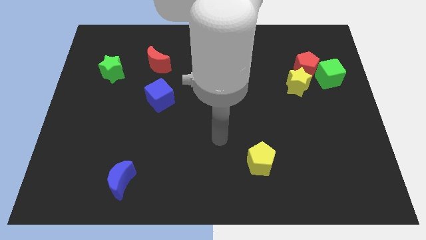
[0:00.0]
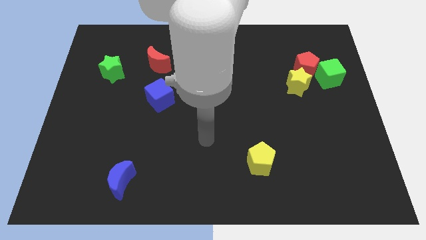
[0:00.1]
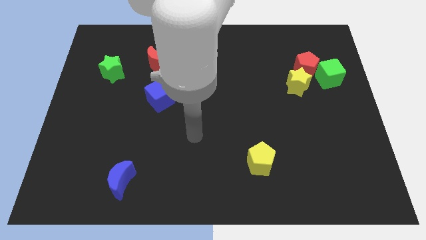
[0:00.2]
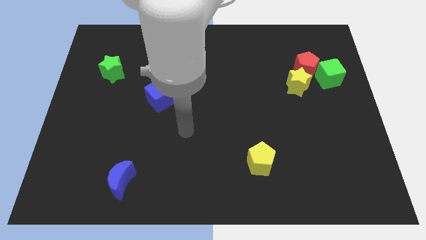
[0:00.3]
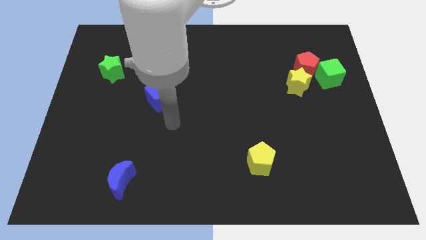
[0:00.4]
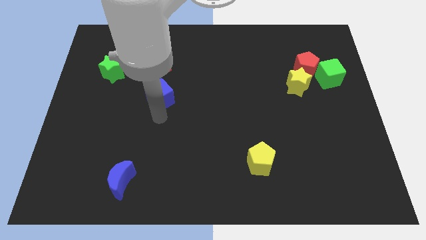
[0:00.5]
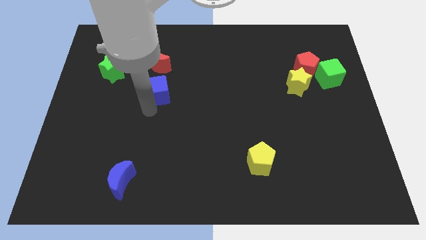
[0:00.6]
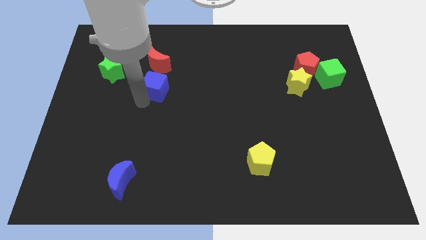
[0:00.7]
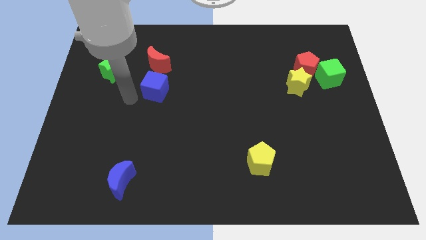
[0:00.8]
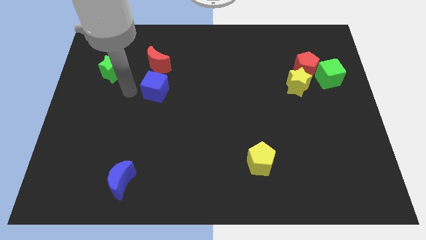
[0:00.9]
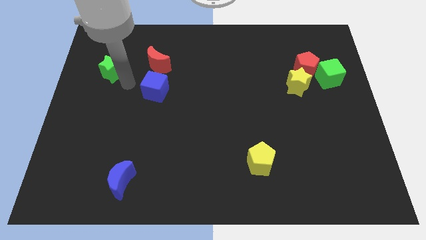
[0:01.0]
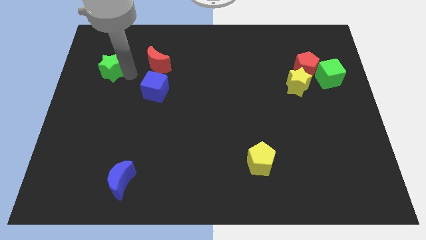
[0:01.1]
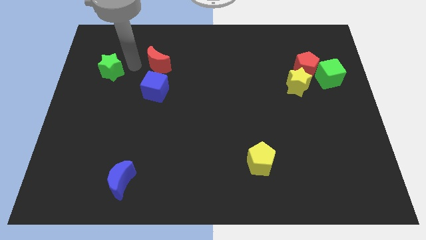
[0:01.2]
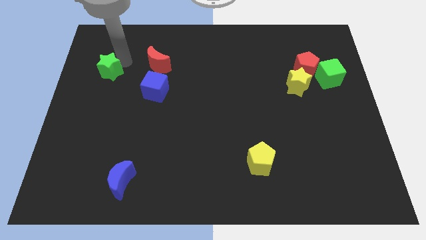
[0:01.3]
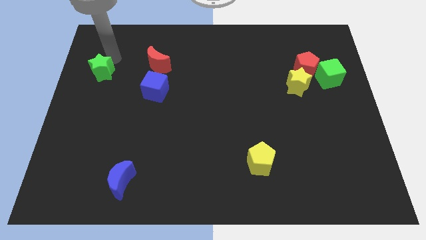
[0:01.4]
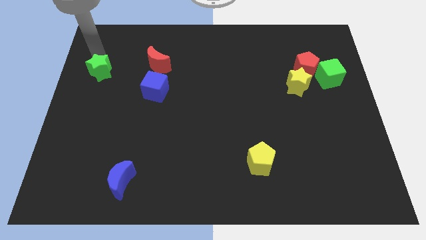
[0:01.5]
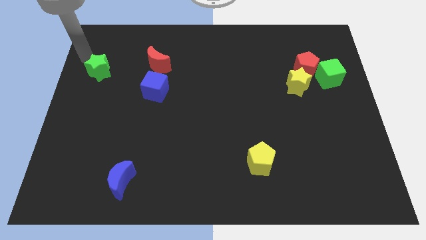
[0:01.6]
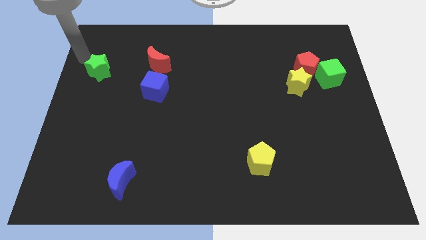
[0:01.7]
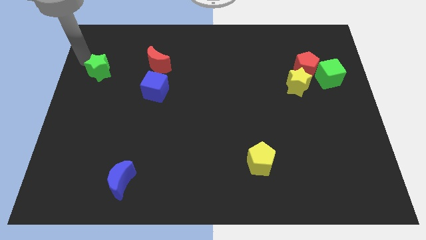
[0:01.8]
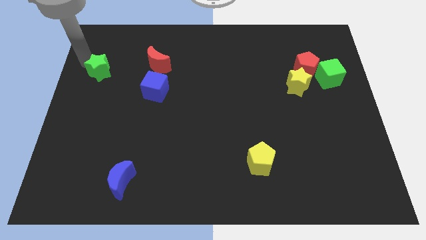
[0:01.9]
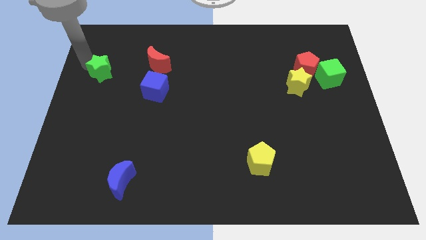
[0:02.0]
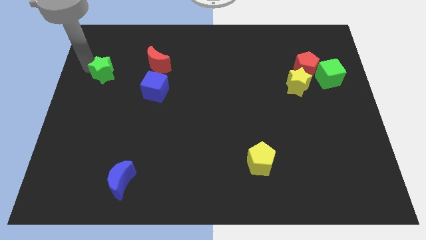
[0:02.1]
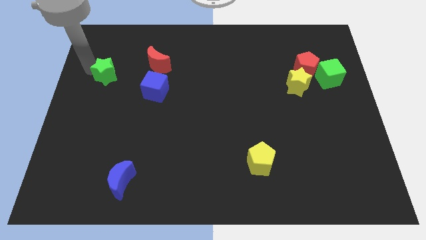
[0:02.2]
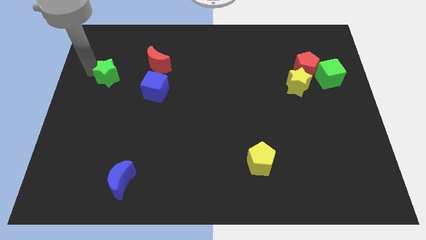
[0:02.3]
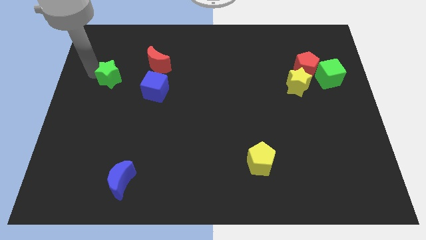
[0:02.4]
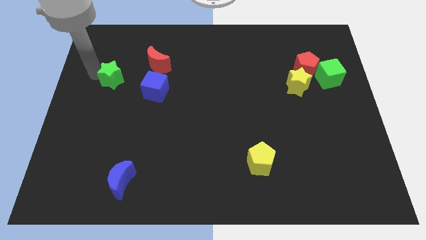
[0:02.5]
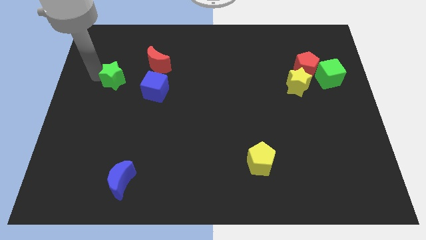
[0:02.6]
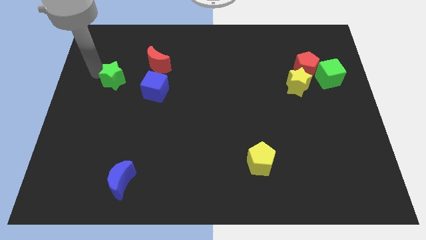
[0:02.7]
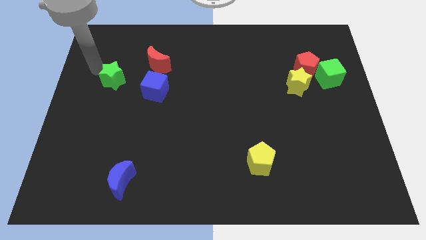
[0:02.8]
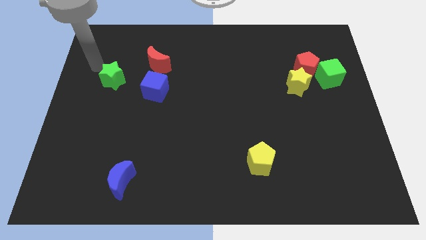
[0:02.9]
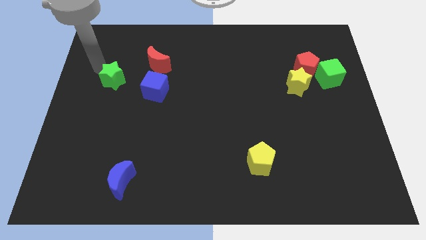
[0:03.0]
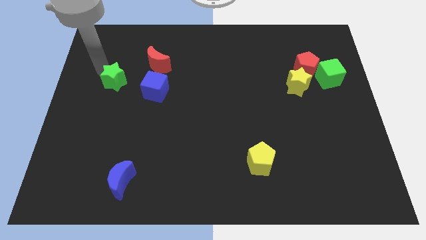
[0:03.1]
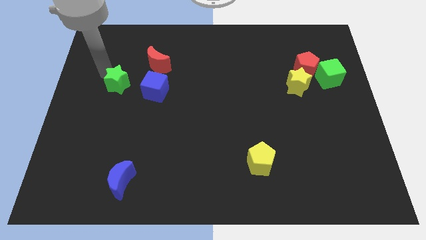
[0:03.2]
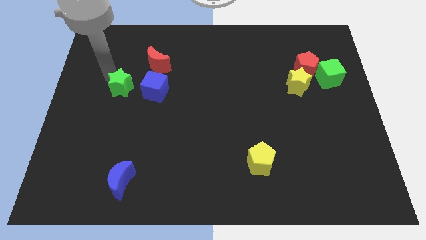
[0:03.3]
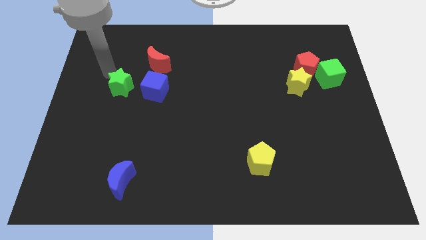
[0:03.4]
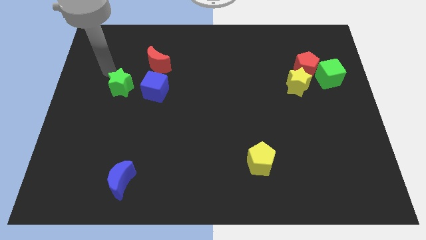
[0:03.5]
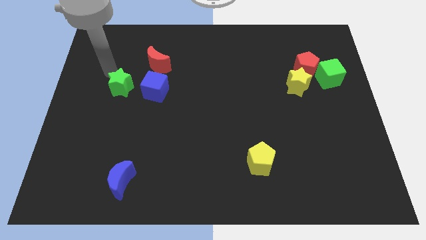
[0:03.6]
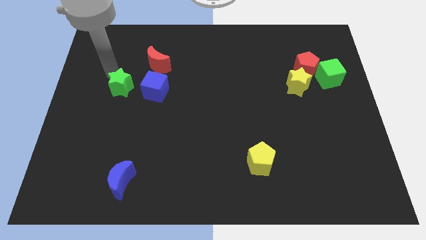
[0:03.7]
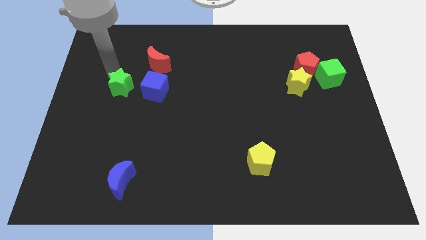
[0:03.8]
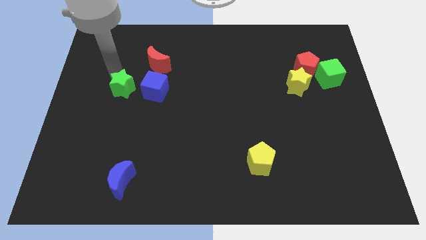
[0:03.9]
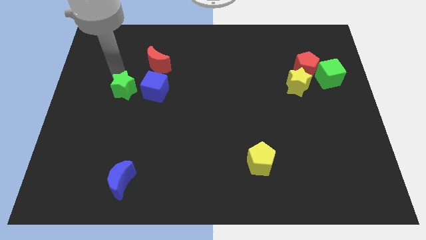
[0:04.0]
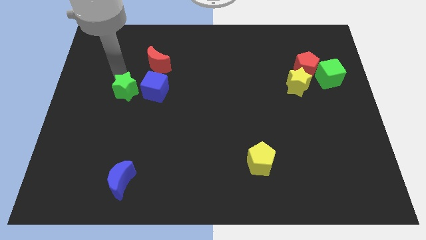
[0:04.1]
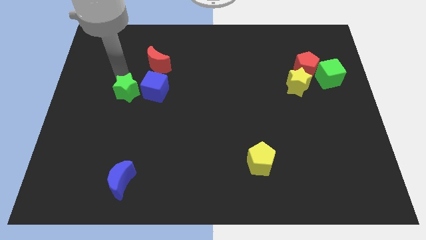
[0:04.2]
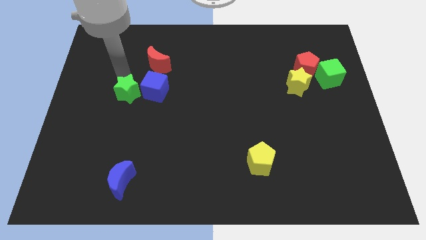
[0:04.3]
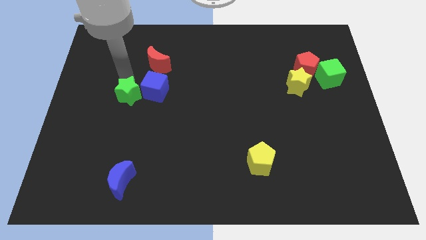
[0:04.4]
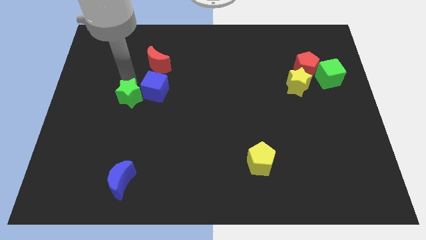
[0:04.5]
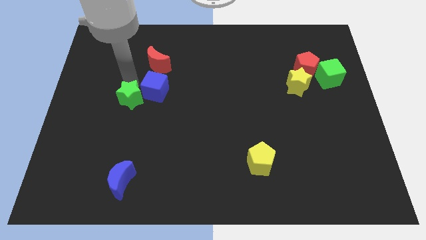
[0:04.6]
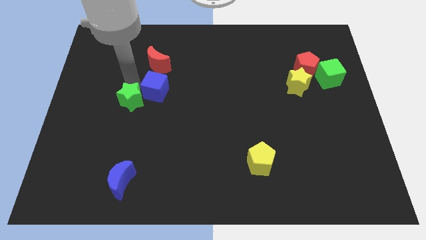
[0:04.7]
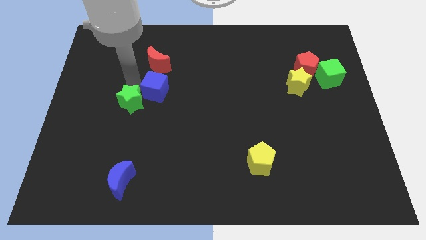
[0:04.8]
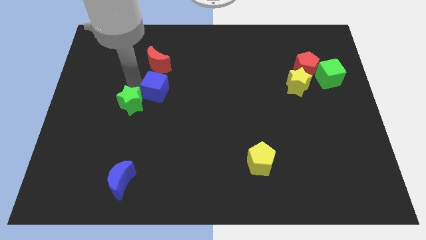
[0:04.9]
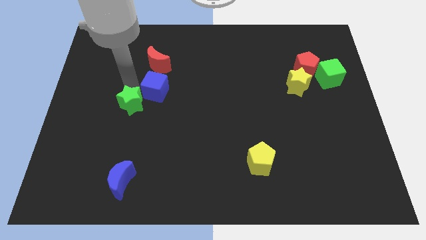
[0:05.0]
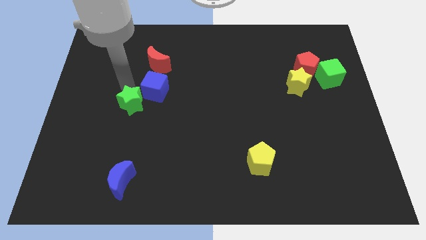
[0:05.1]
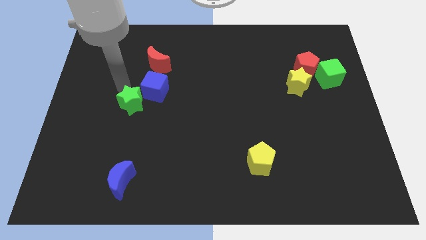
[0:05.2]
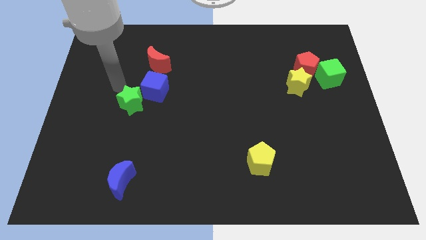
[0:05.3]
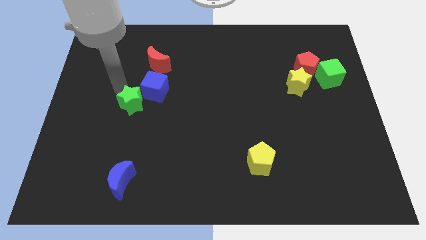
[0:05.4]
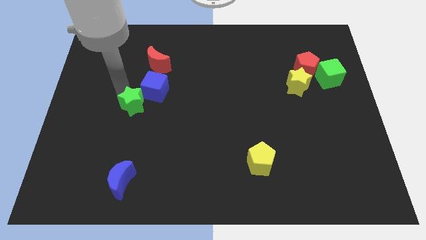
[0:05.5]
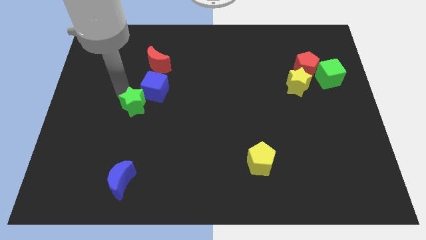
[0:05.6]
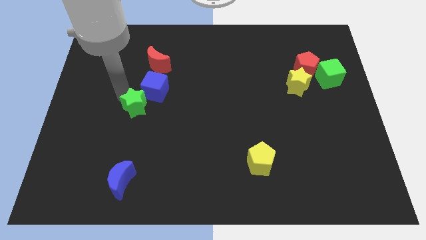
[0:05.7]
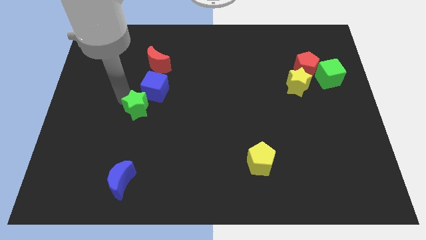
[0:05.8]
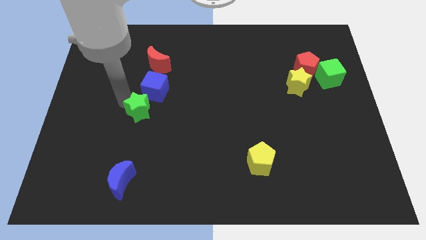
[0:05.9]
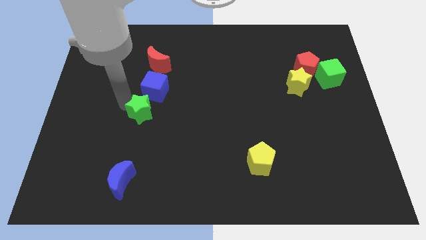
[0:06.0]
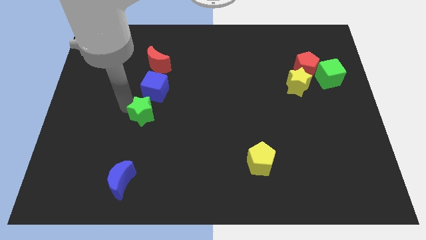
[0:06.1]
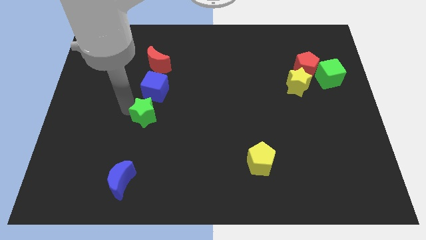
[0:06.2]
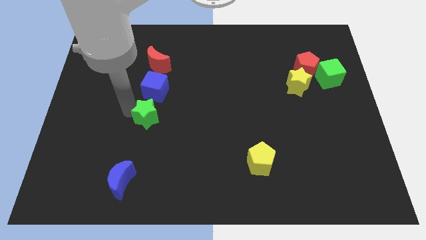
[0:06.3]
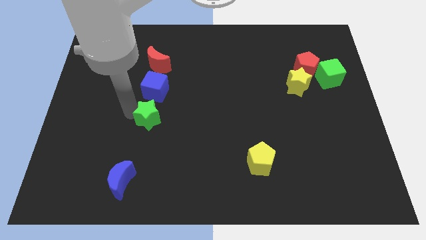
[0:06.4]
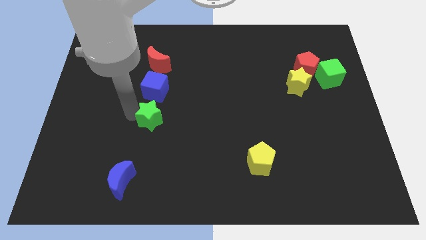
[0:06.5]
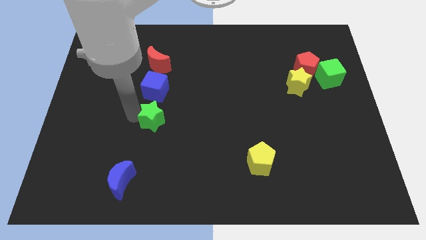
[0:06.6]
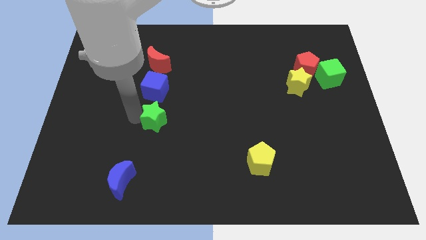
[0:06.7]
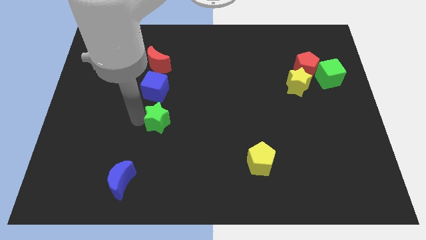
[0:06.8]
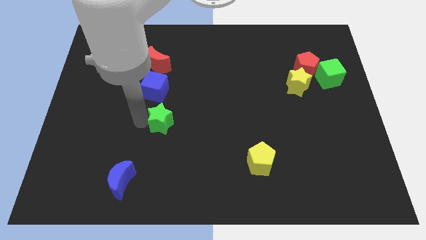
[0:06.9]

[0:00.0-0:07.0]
slide the green star downwards and then to the right

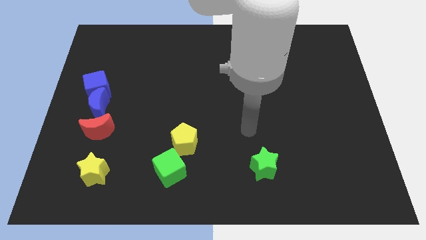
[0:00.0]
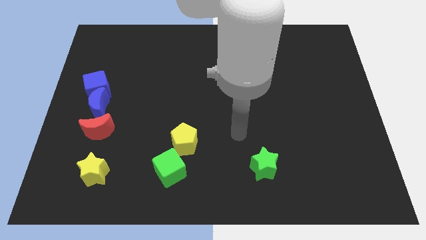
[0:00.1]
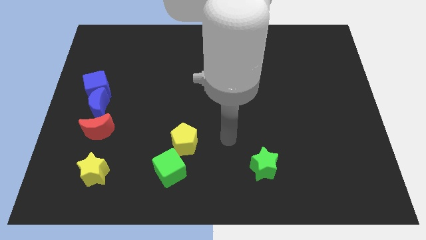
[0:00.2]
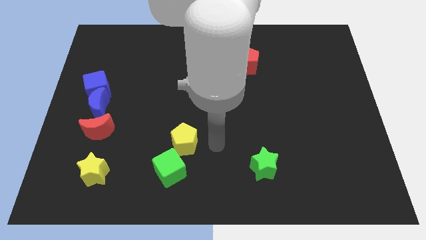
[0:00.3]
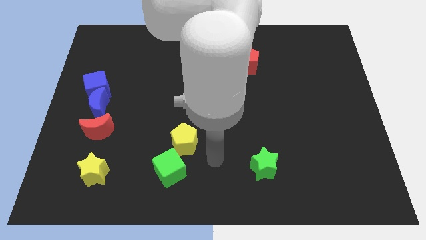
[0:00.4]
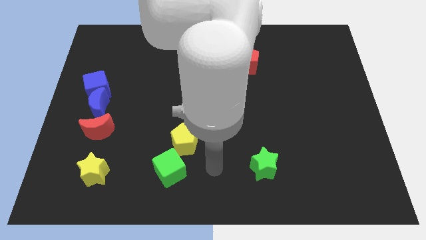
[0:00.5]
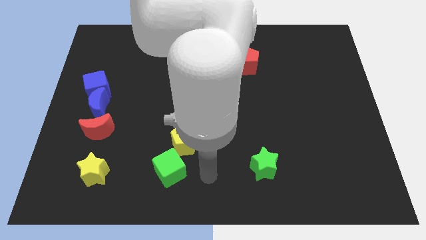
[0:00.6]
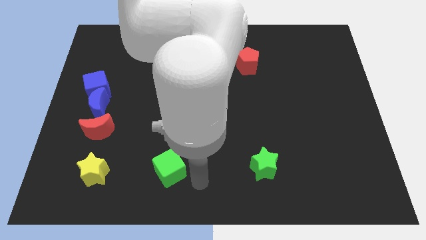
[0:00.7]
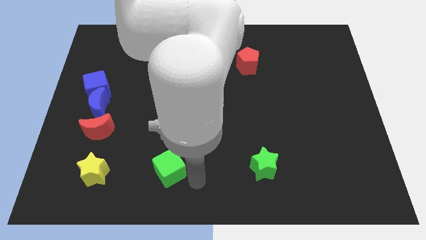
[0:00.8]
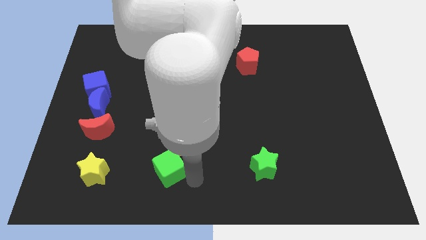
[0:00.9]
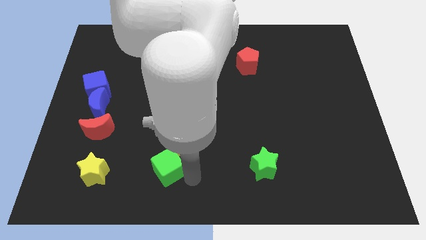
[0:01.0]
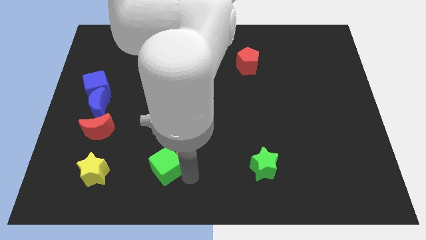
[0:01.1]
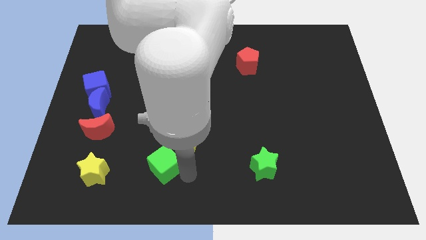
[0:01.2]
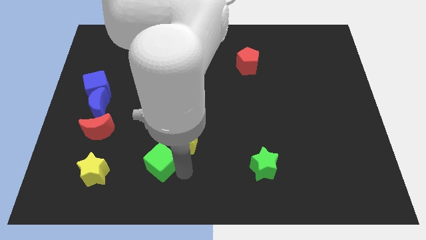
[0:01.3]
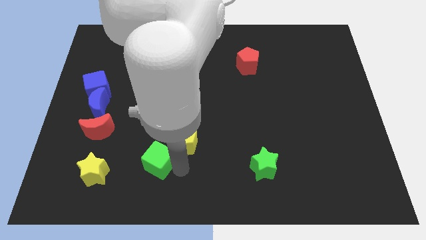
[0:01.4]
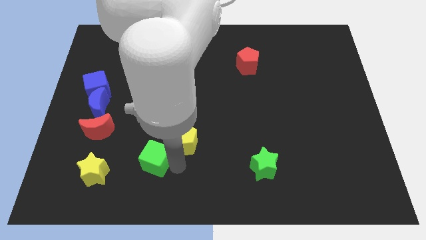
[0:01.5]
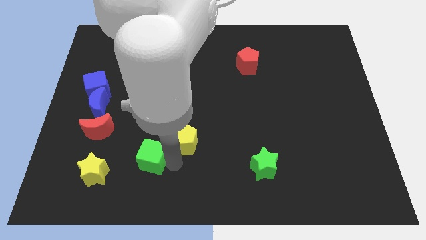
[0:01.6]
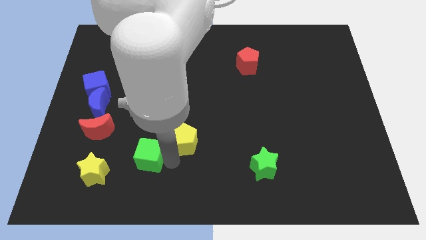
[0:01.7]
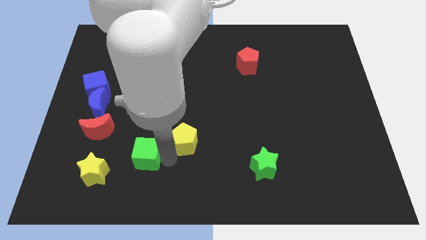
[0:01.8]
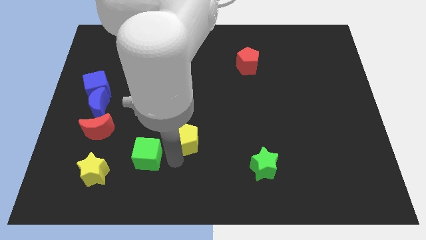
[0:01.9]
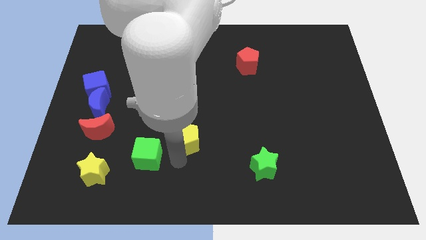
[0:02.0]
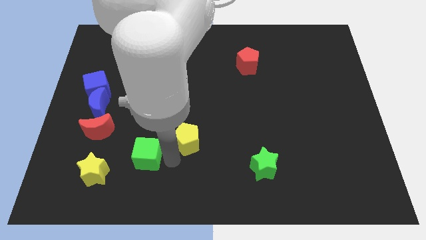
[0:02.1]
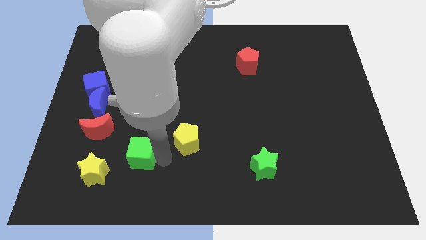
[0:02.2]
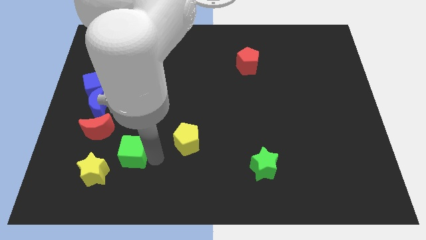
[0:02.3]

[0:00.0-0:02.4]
slide the green cube to the left a bit
